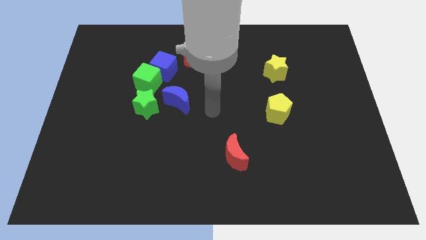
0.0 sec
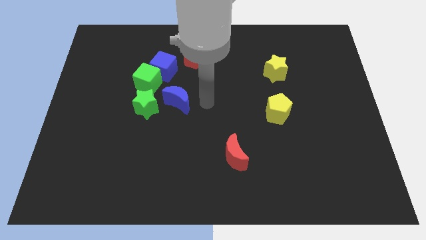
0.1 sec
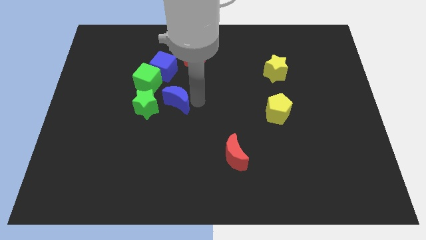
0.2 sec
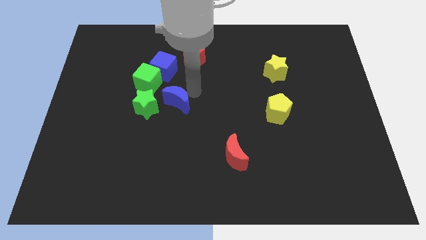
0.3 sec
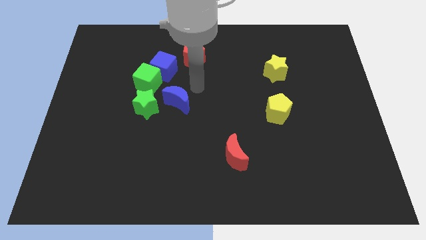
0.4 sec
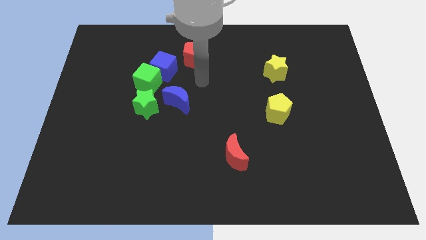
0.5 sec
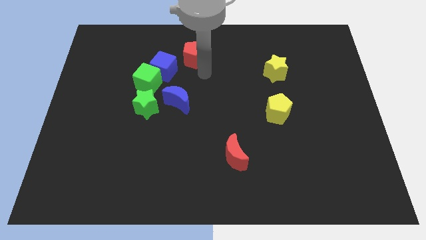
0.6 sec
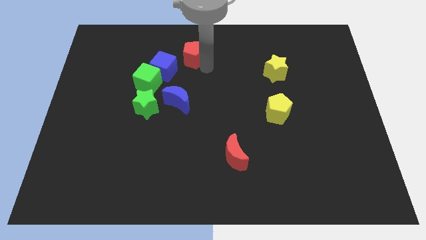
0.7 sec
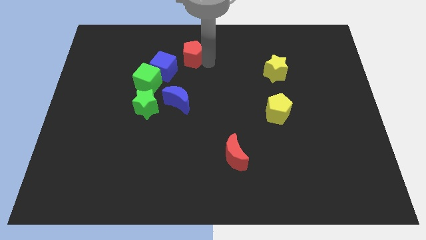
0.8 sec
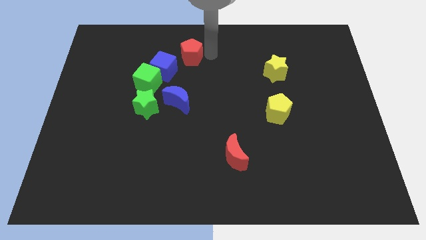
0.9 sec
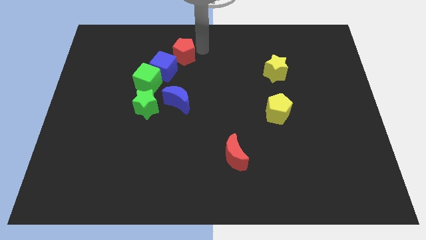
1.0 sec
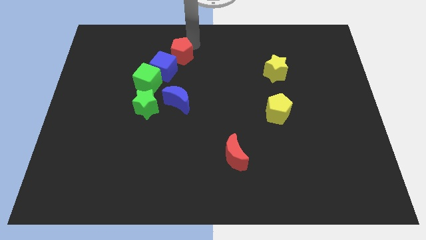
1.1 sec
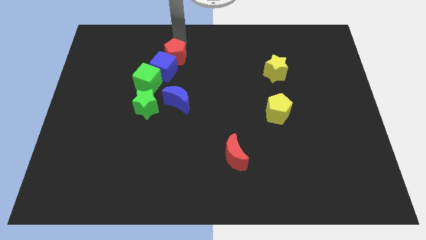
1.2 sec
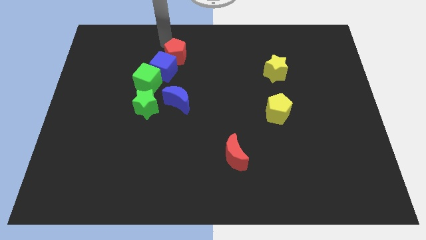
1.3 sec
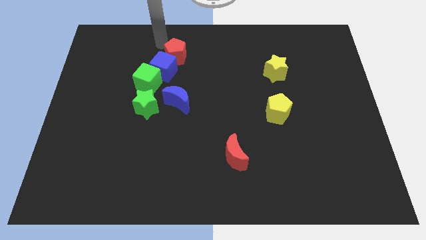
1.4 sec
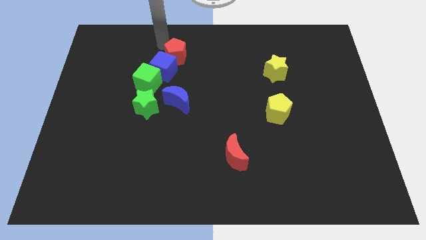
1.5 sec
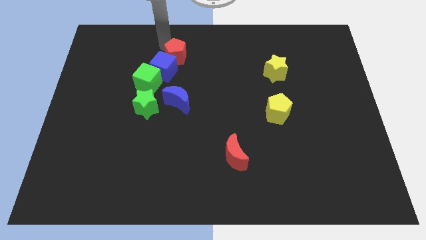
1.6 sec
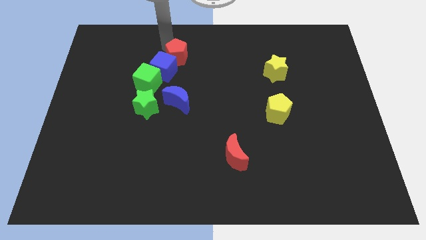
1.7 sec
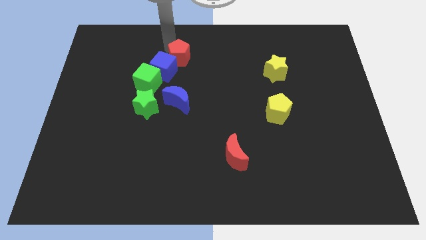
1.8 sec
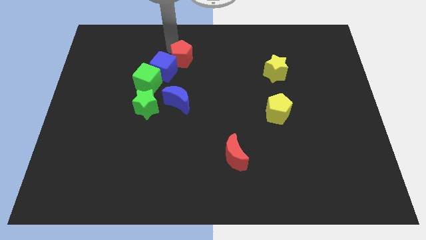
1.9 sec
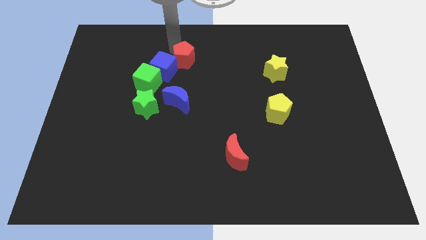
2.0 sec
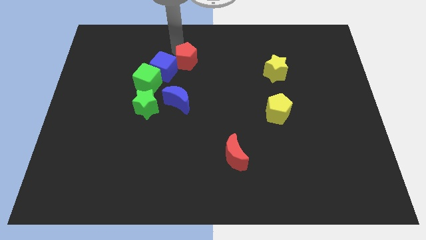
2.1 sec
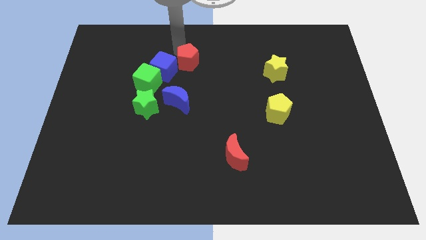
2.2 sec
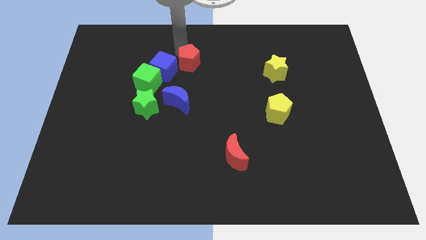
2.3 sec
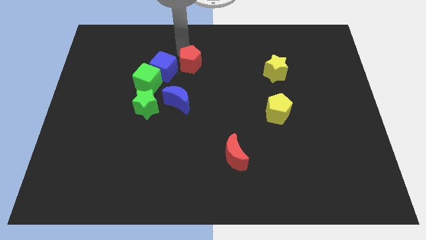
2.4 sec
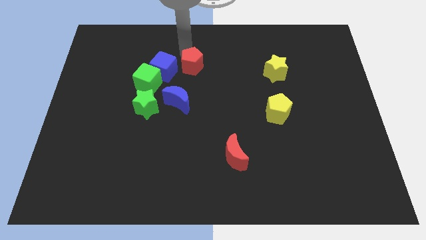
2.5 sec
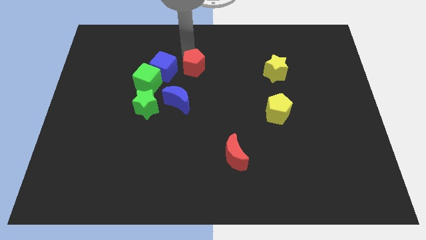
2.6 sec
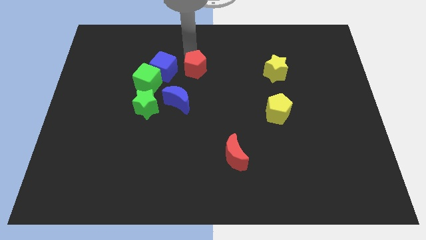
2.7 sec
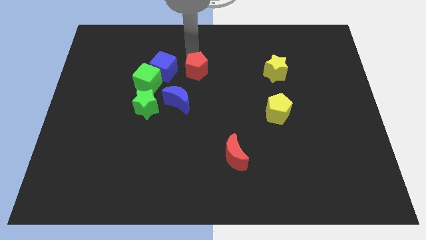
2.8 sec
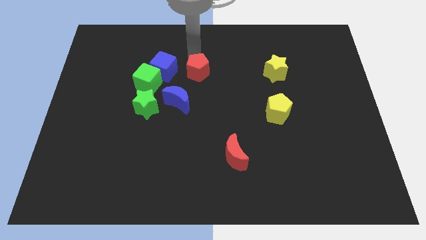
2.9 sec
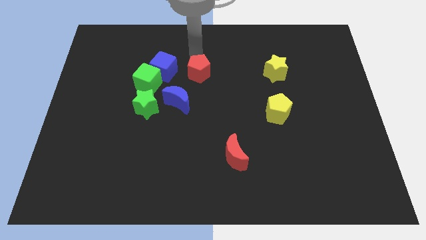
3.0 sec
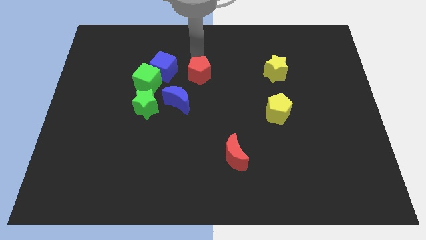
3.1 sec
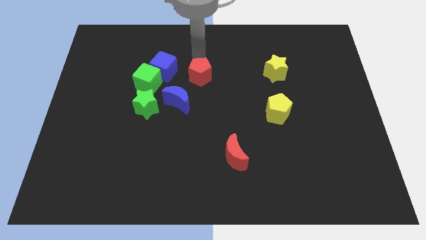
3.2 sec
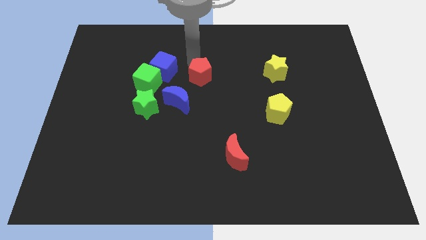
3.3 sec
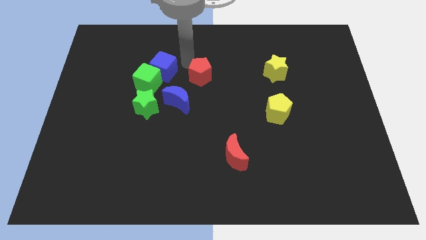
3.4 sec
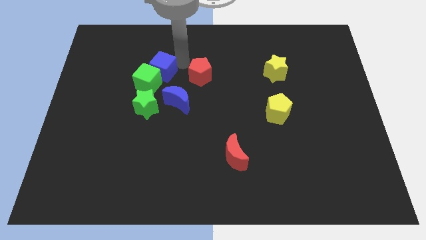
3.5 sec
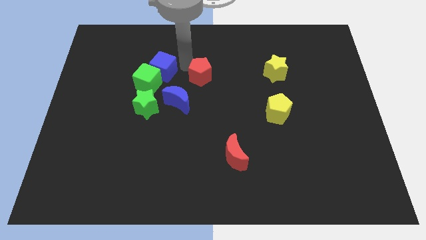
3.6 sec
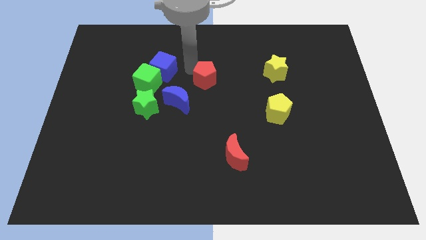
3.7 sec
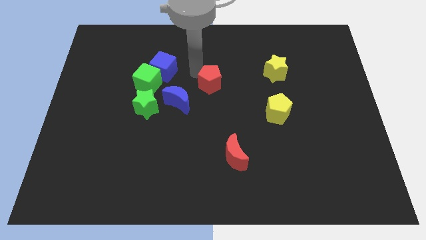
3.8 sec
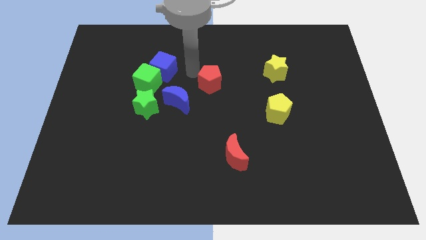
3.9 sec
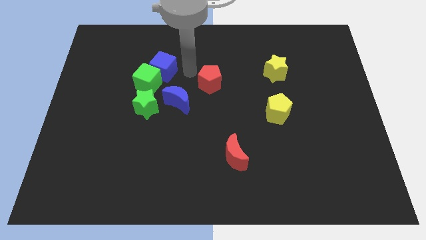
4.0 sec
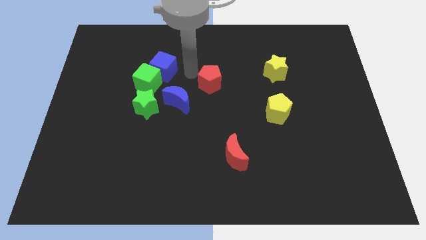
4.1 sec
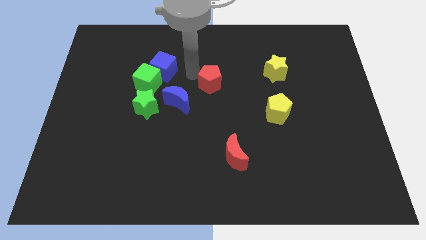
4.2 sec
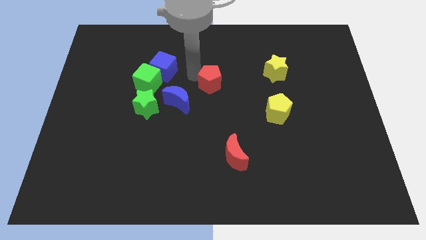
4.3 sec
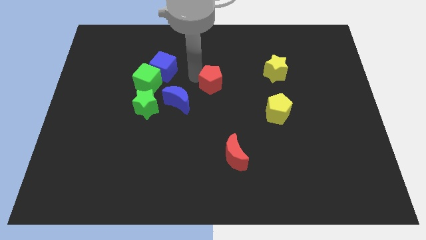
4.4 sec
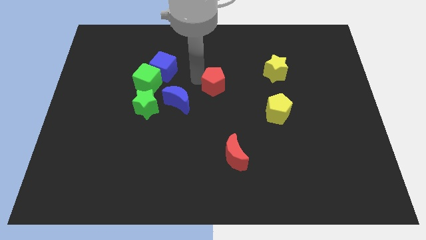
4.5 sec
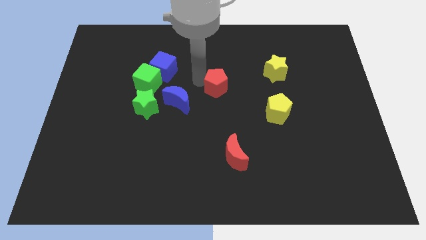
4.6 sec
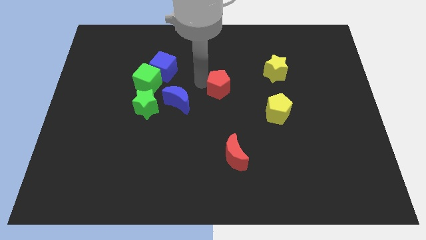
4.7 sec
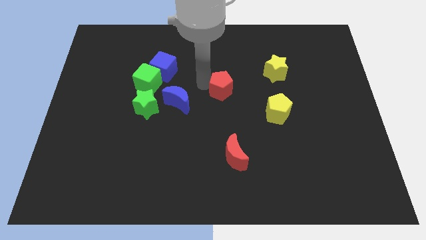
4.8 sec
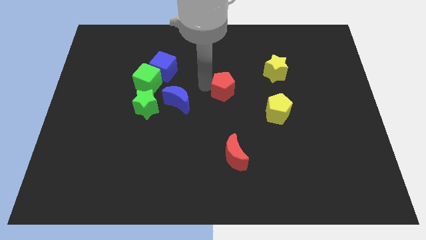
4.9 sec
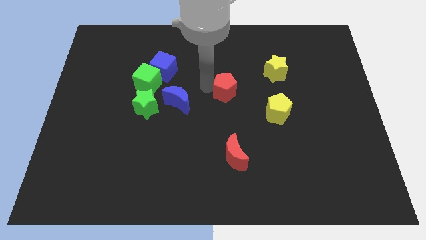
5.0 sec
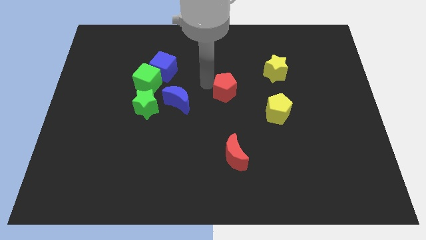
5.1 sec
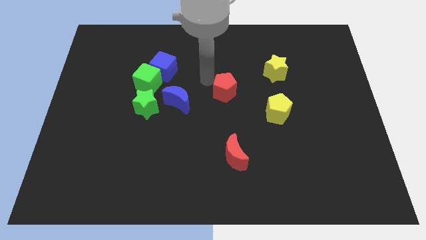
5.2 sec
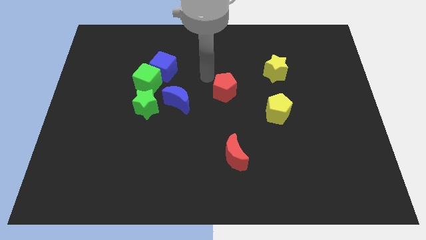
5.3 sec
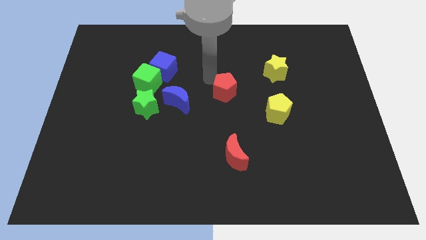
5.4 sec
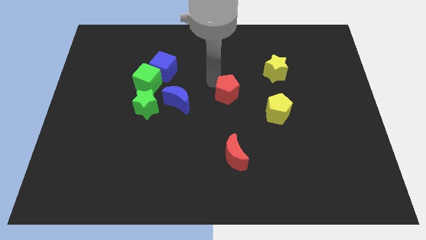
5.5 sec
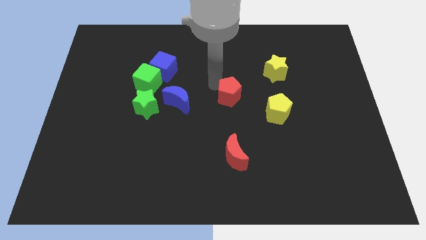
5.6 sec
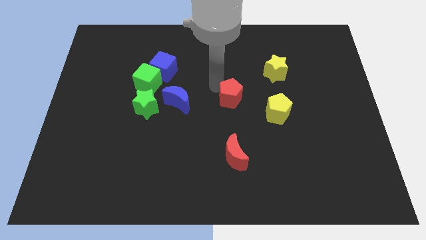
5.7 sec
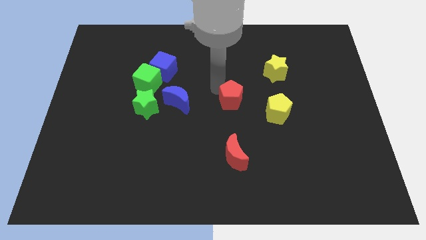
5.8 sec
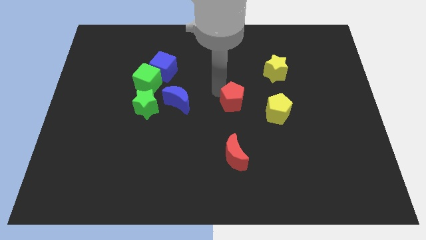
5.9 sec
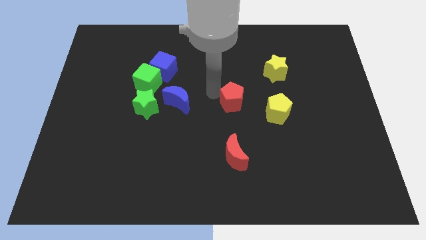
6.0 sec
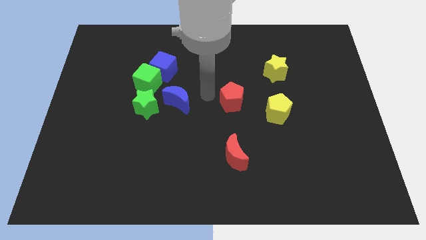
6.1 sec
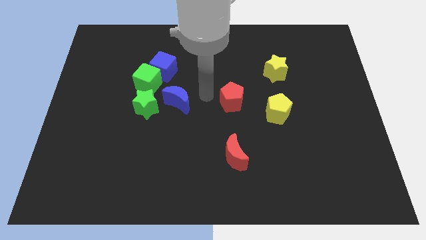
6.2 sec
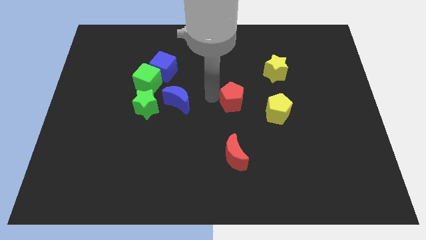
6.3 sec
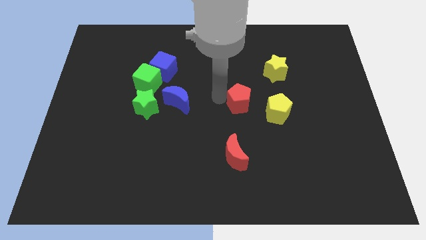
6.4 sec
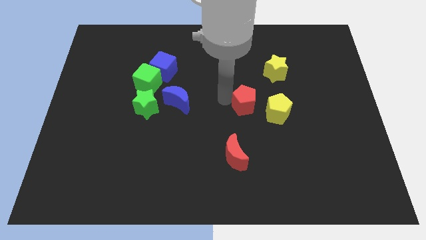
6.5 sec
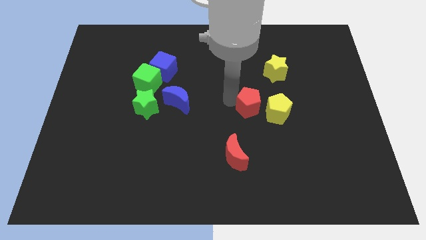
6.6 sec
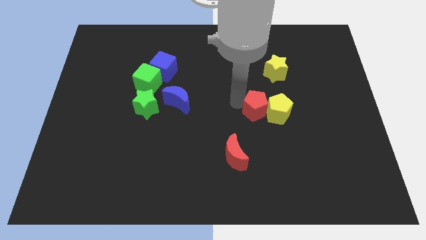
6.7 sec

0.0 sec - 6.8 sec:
push the red pentagon next to the yellow pentagon

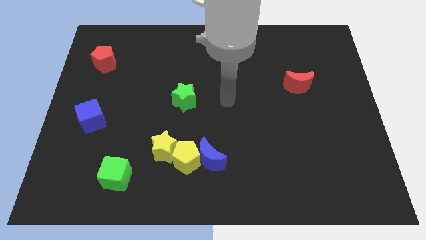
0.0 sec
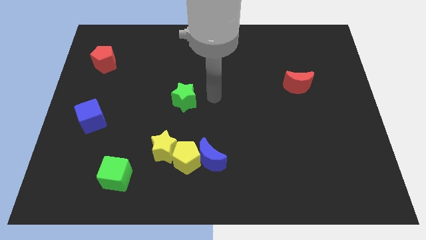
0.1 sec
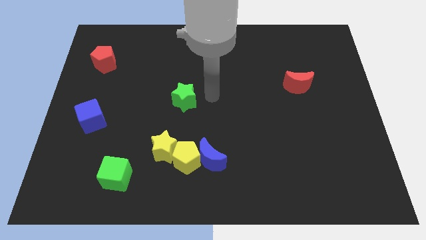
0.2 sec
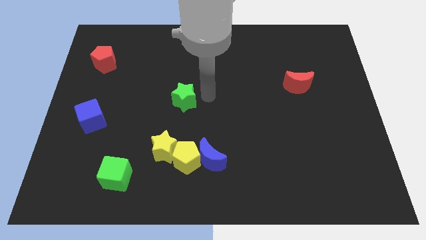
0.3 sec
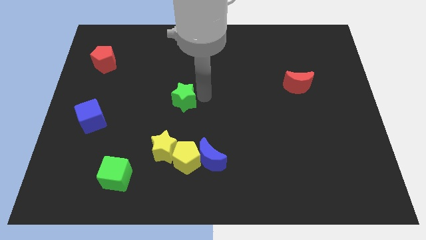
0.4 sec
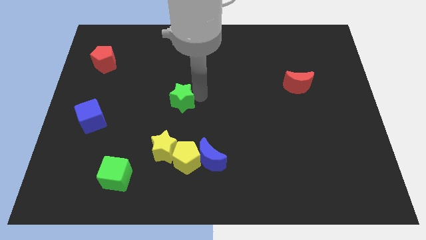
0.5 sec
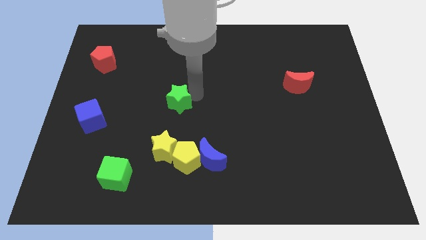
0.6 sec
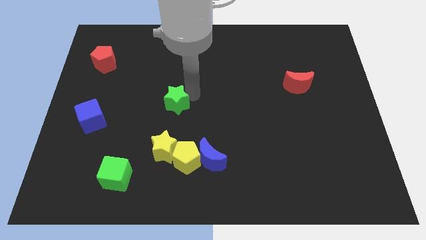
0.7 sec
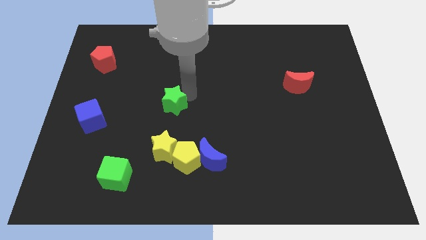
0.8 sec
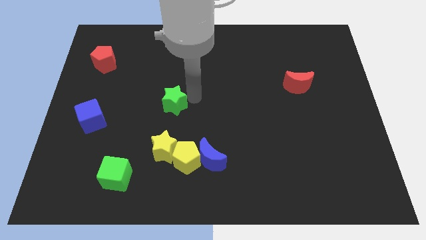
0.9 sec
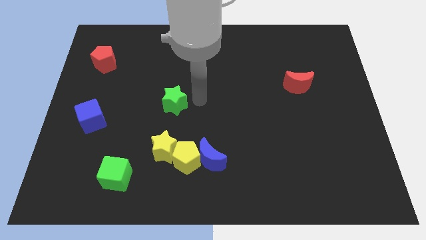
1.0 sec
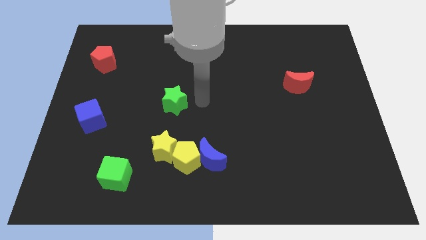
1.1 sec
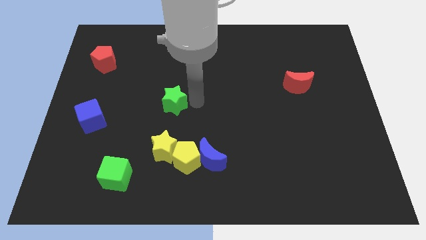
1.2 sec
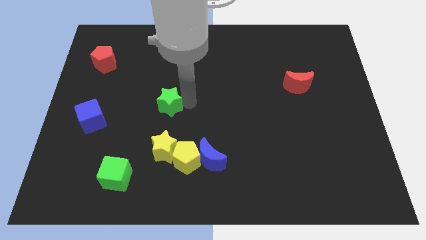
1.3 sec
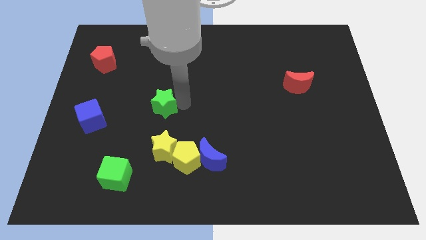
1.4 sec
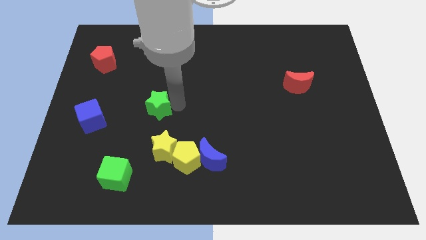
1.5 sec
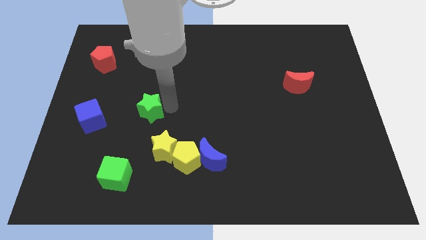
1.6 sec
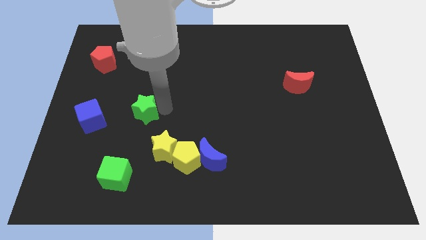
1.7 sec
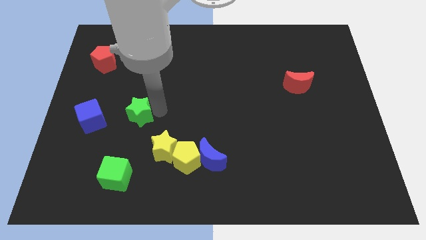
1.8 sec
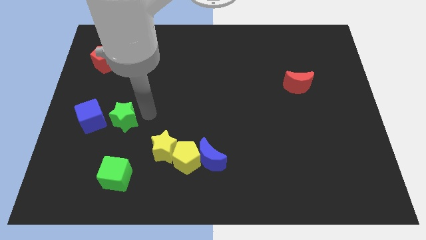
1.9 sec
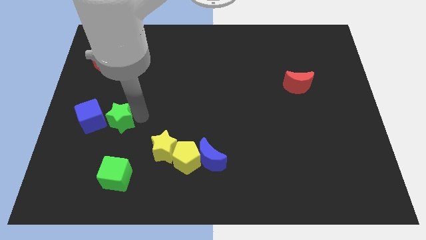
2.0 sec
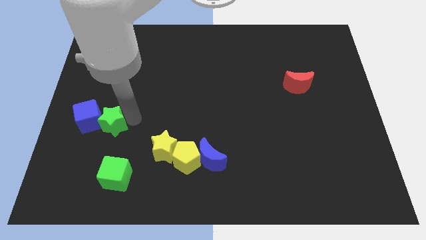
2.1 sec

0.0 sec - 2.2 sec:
move the green star to the blue cube
